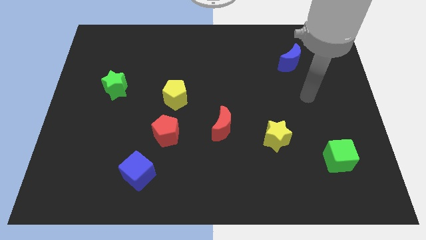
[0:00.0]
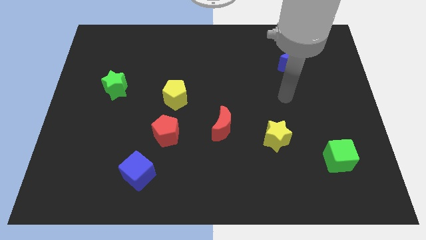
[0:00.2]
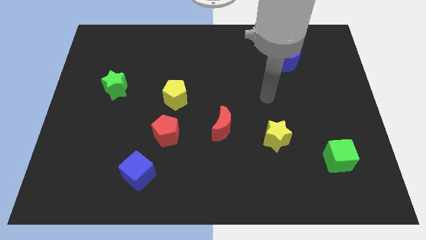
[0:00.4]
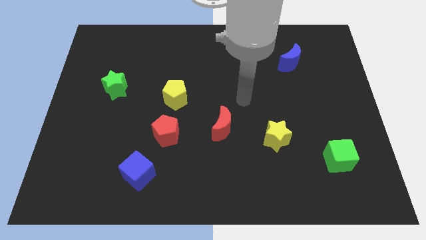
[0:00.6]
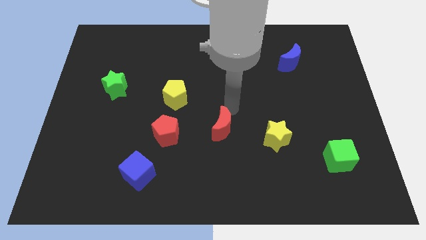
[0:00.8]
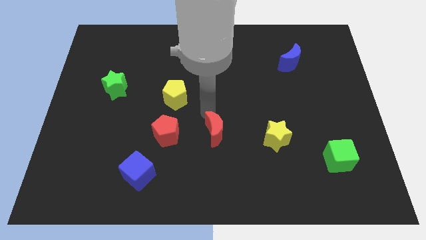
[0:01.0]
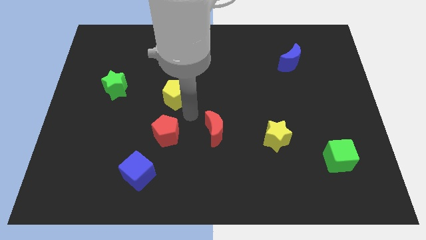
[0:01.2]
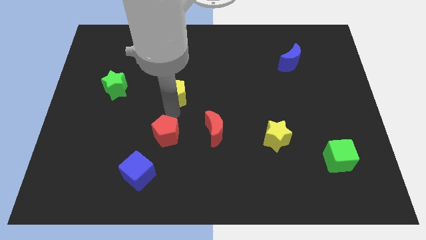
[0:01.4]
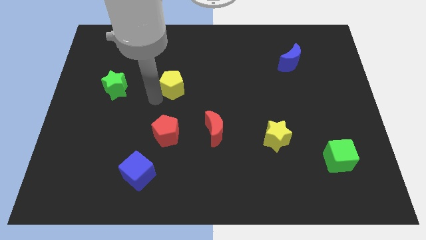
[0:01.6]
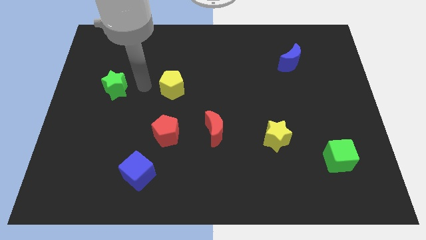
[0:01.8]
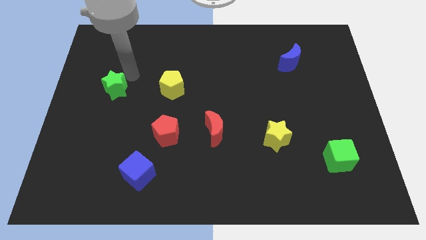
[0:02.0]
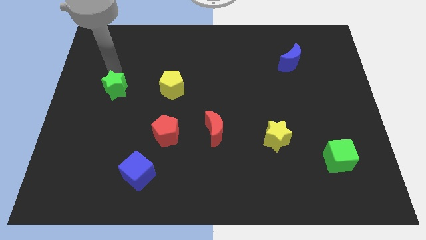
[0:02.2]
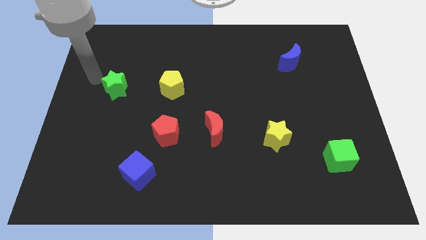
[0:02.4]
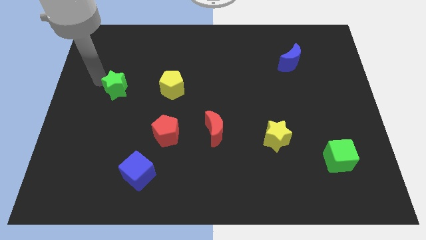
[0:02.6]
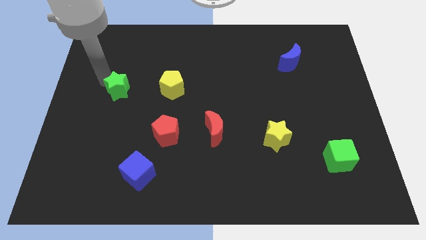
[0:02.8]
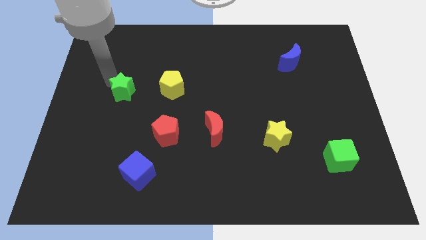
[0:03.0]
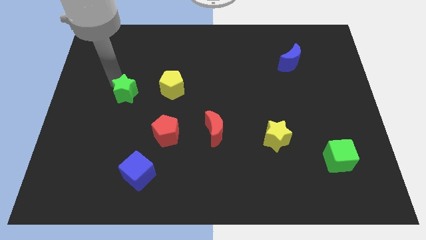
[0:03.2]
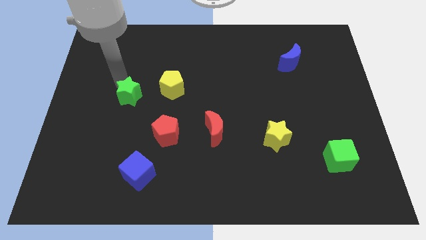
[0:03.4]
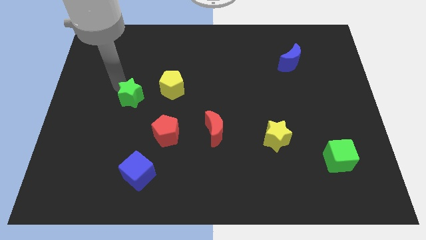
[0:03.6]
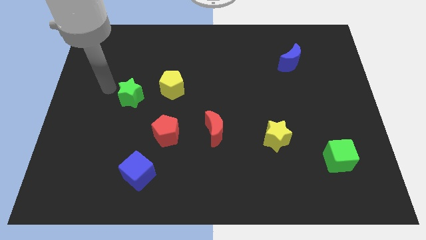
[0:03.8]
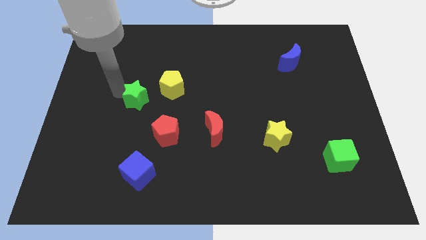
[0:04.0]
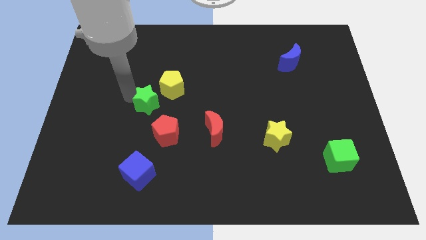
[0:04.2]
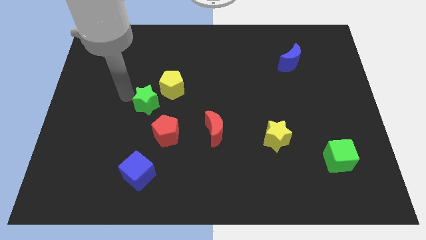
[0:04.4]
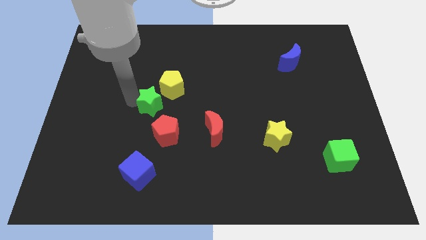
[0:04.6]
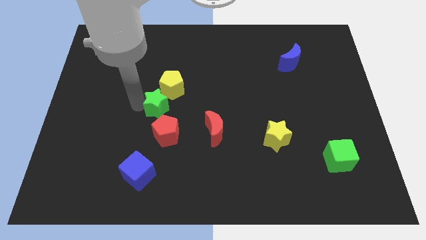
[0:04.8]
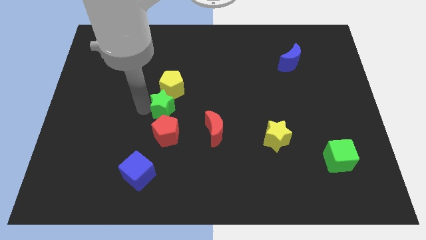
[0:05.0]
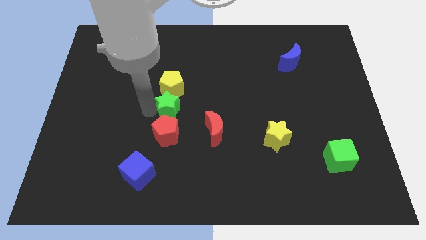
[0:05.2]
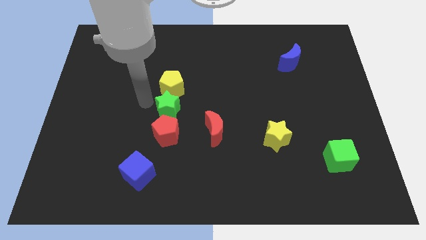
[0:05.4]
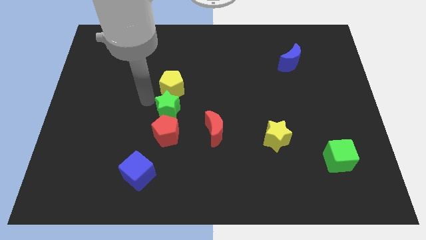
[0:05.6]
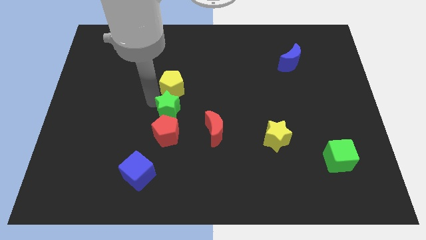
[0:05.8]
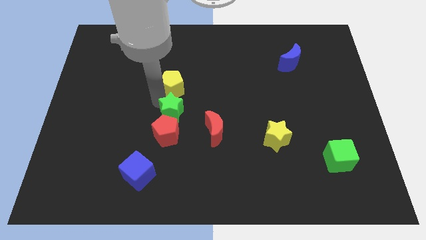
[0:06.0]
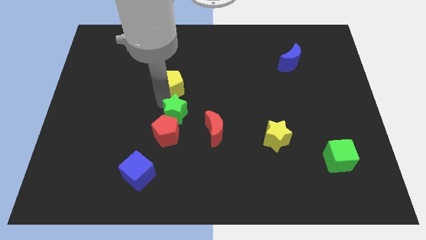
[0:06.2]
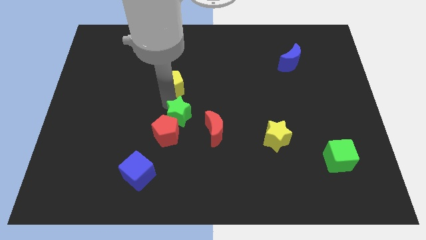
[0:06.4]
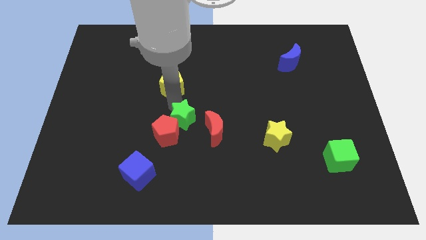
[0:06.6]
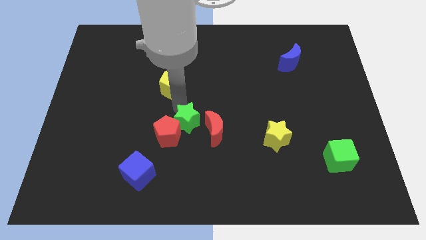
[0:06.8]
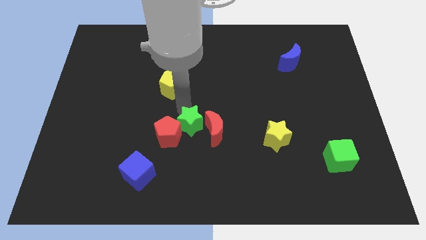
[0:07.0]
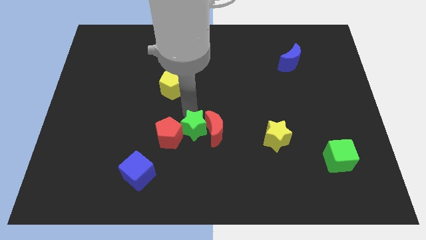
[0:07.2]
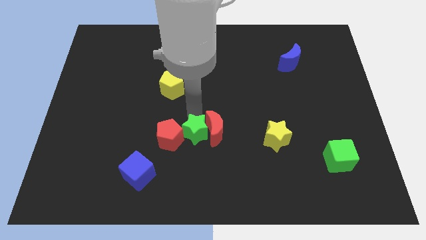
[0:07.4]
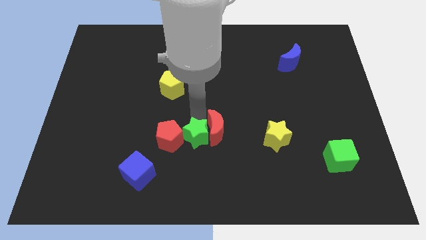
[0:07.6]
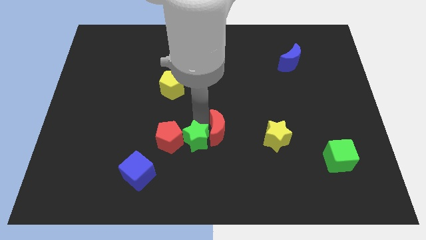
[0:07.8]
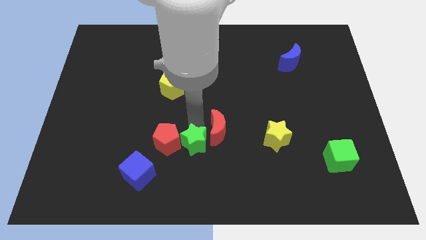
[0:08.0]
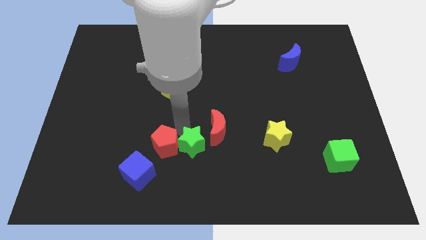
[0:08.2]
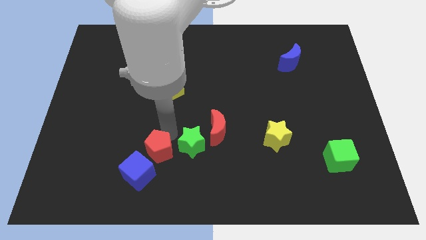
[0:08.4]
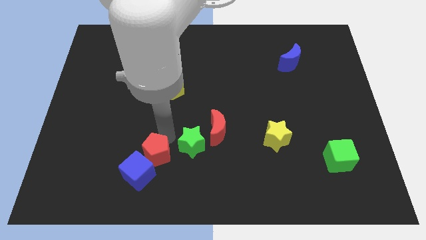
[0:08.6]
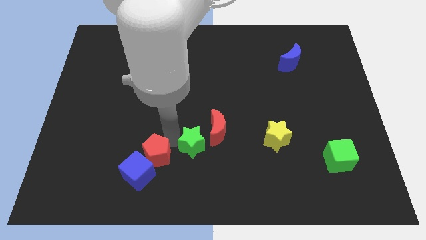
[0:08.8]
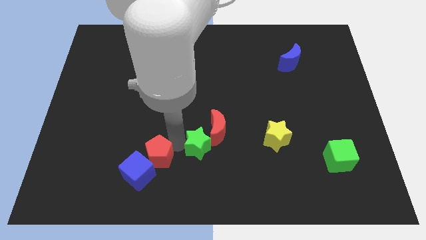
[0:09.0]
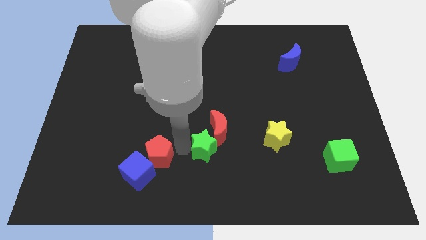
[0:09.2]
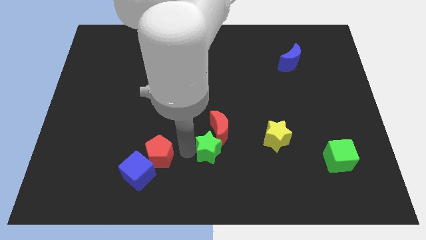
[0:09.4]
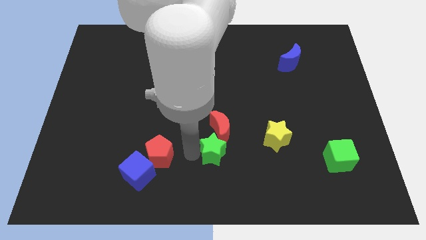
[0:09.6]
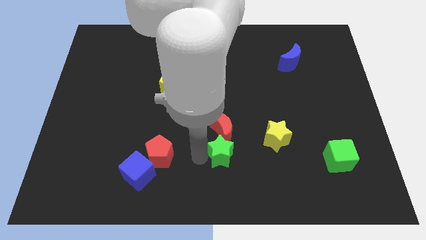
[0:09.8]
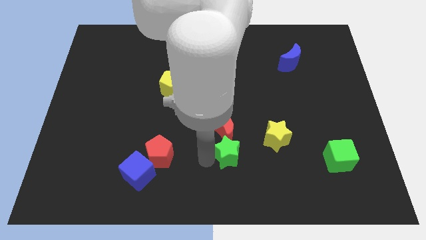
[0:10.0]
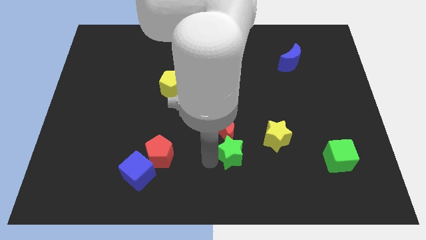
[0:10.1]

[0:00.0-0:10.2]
move the green star to the bottom left of the yellow star

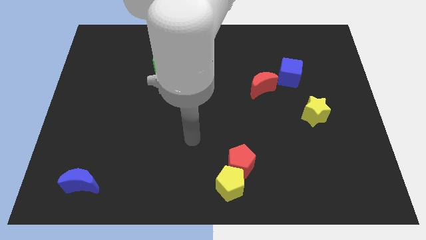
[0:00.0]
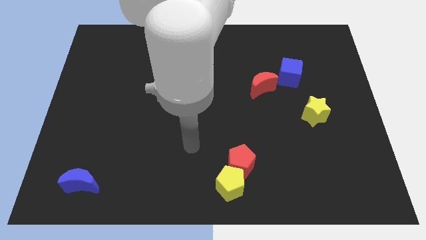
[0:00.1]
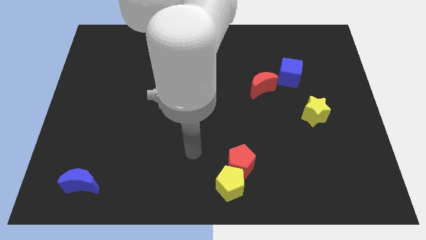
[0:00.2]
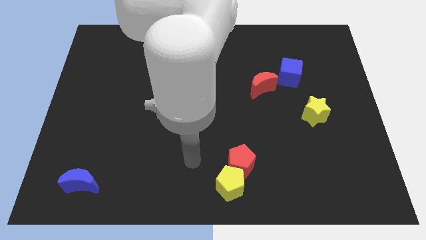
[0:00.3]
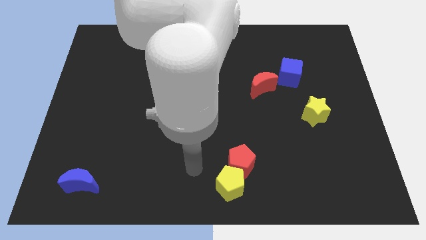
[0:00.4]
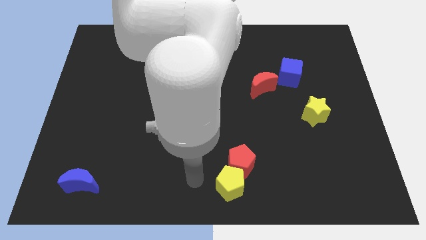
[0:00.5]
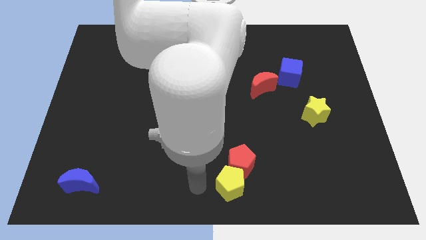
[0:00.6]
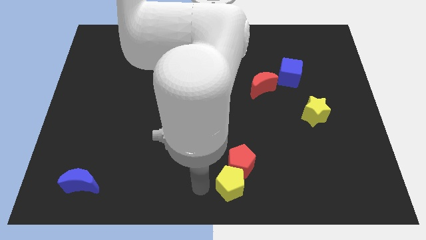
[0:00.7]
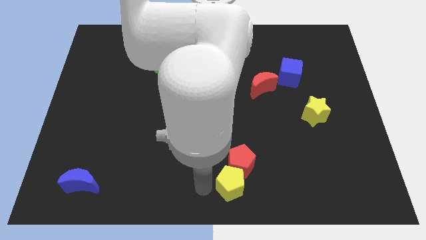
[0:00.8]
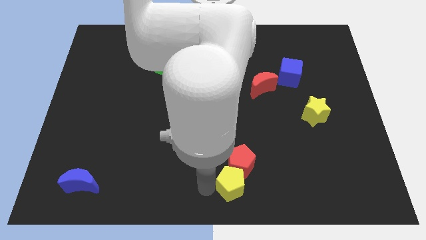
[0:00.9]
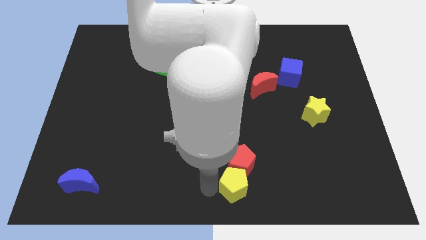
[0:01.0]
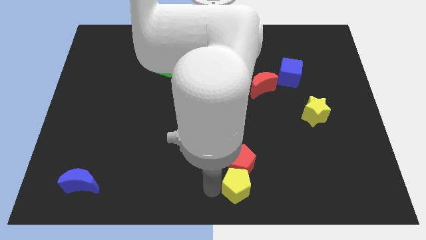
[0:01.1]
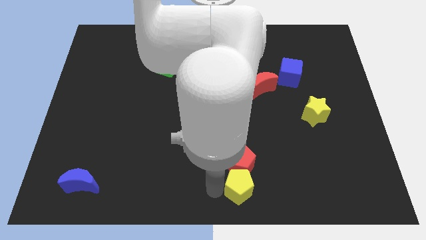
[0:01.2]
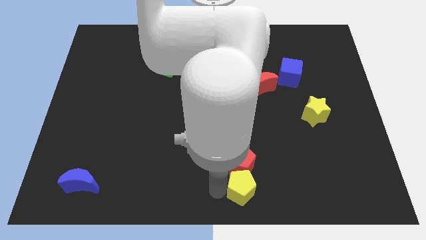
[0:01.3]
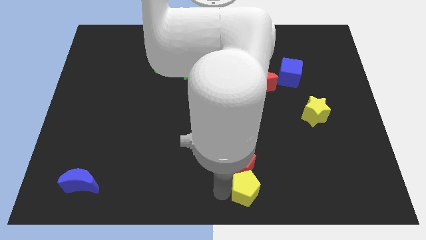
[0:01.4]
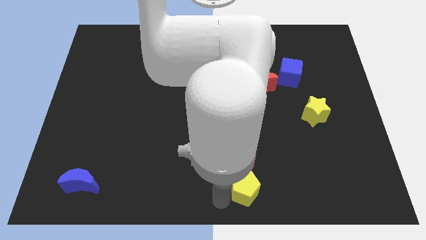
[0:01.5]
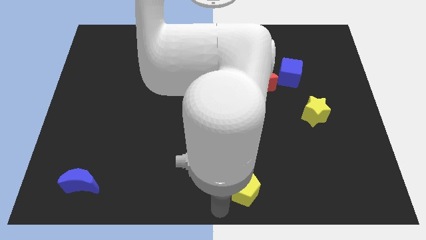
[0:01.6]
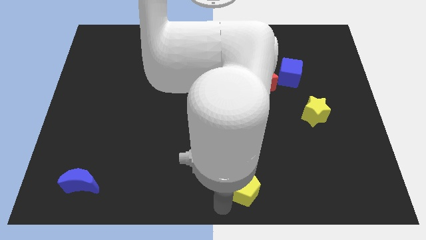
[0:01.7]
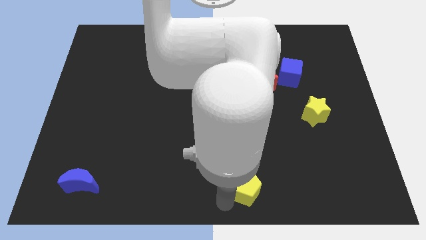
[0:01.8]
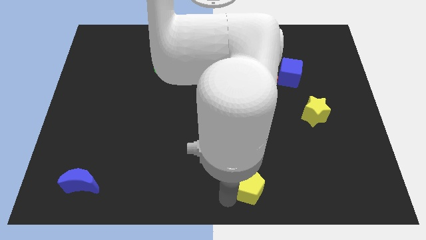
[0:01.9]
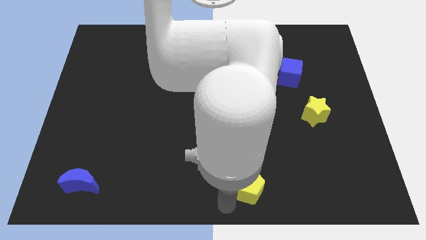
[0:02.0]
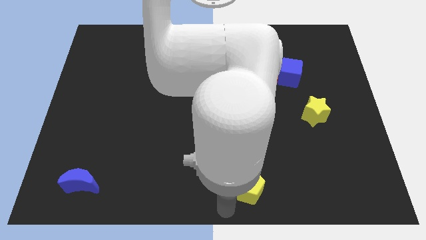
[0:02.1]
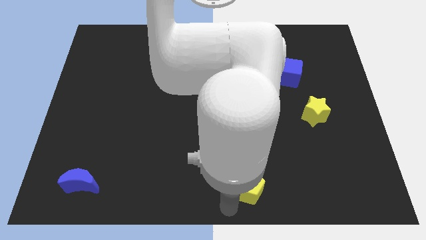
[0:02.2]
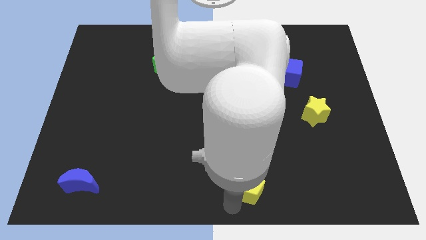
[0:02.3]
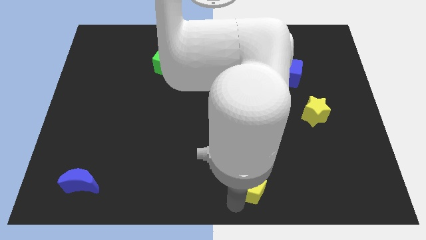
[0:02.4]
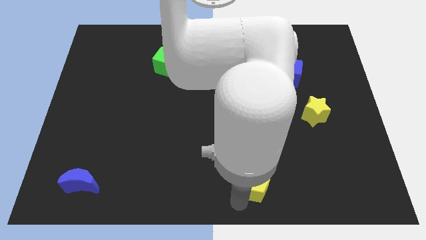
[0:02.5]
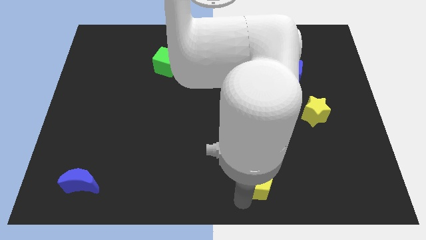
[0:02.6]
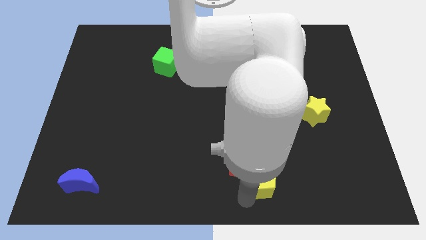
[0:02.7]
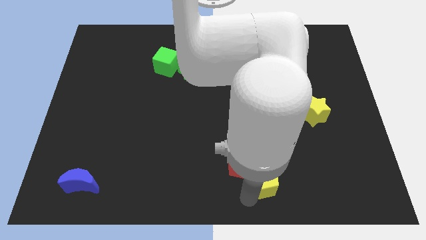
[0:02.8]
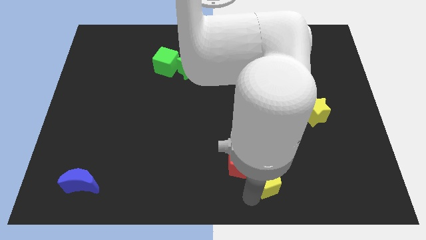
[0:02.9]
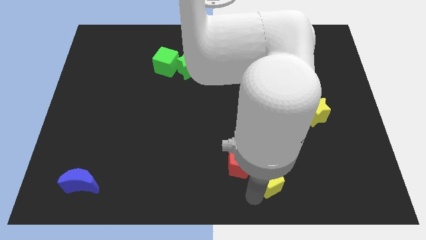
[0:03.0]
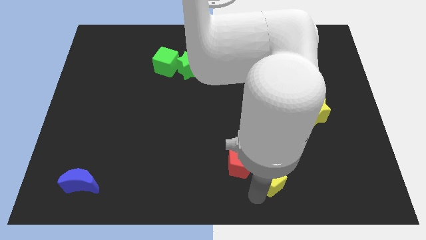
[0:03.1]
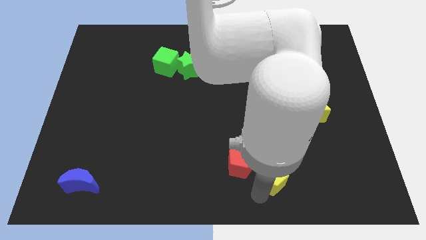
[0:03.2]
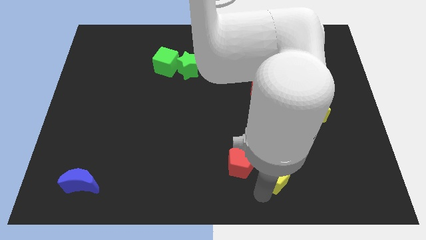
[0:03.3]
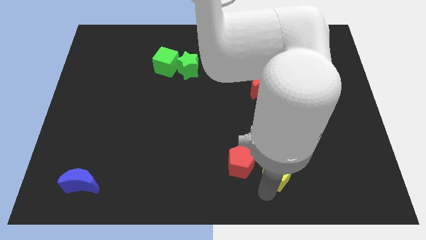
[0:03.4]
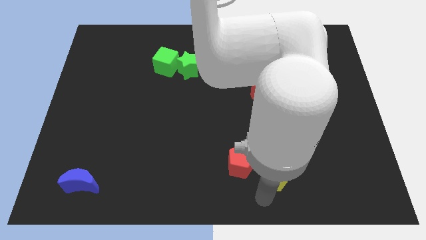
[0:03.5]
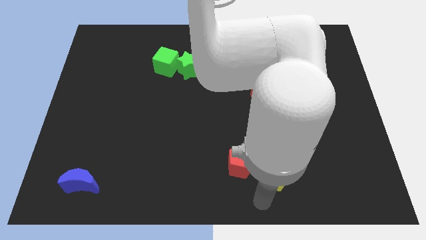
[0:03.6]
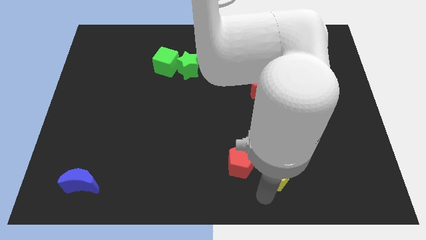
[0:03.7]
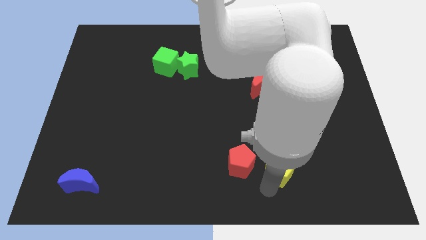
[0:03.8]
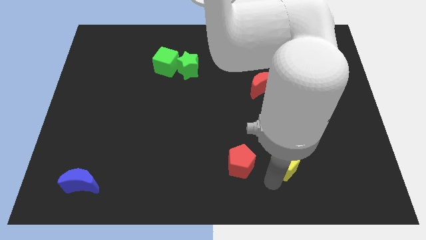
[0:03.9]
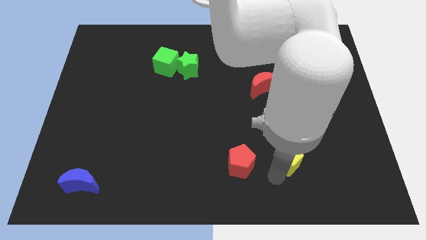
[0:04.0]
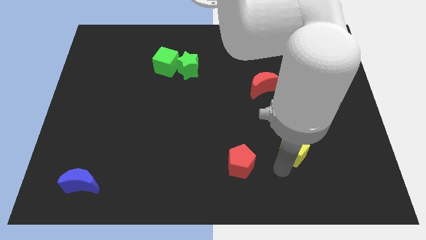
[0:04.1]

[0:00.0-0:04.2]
slide the yellow pentagon to the bottom left side of the yellow star
